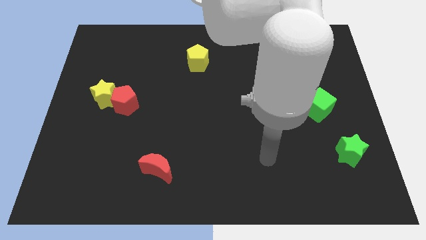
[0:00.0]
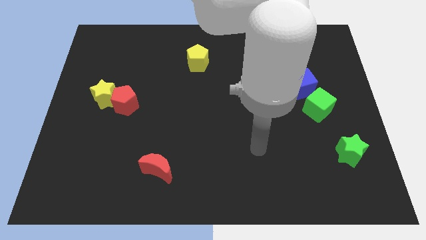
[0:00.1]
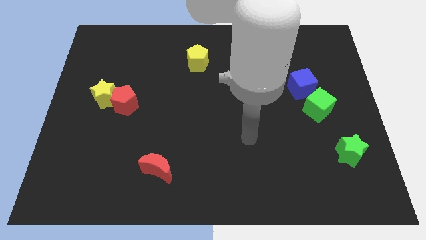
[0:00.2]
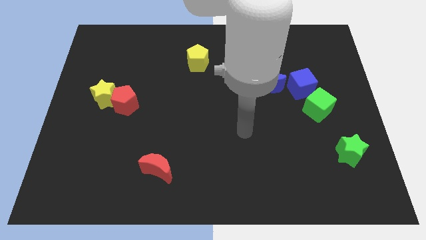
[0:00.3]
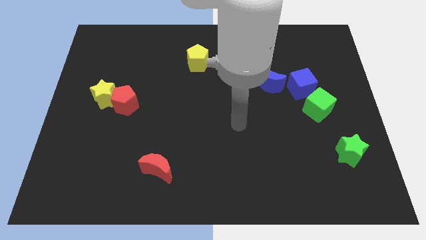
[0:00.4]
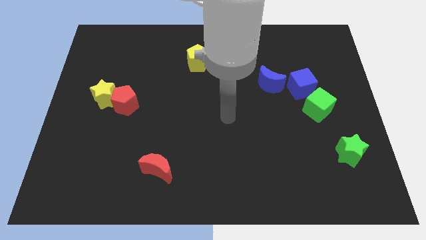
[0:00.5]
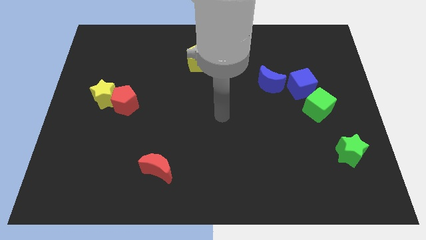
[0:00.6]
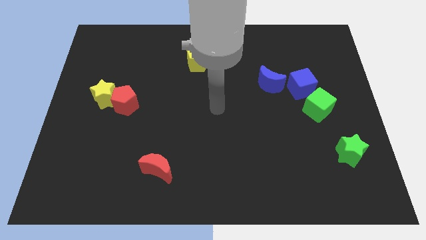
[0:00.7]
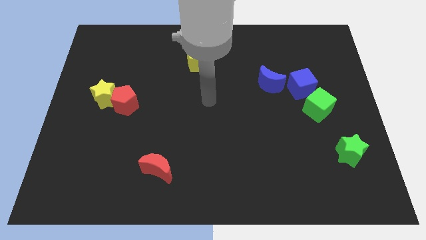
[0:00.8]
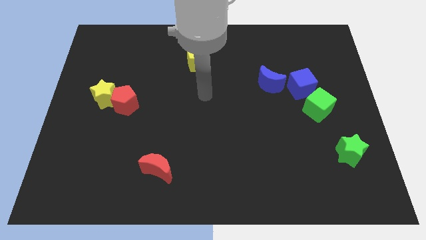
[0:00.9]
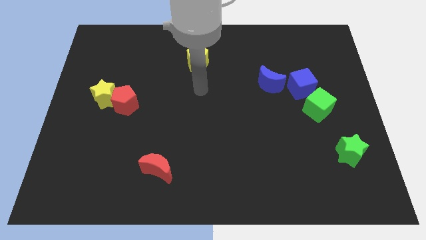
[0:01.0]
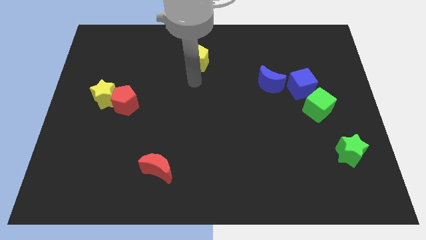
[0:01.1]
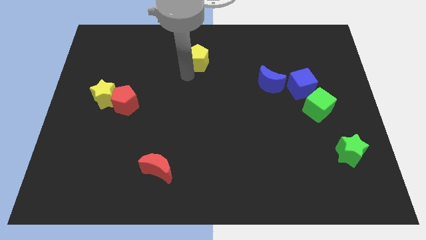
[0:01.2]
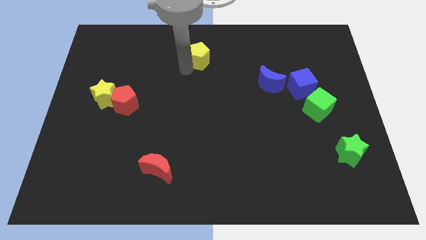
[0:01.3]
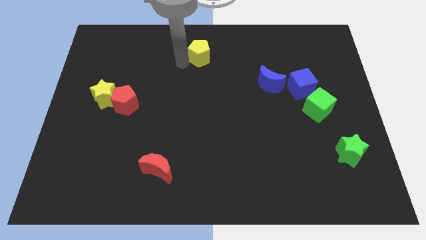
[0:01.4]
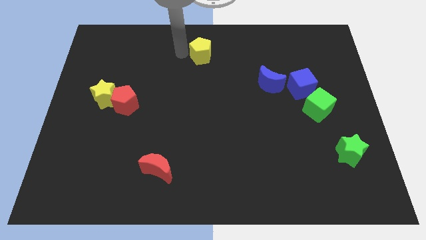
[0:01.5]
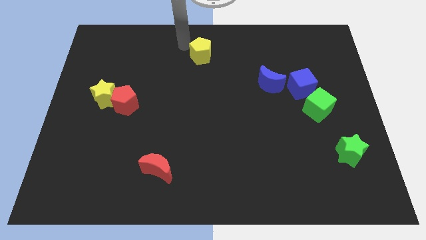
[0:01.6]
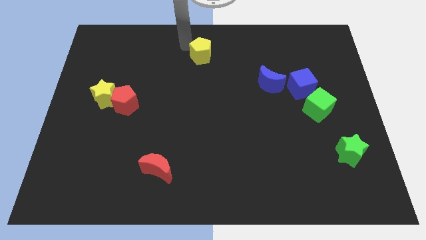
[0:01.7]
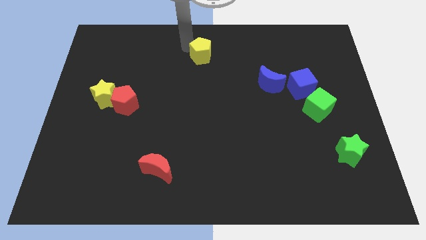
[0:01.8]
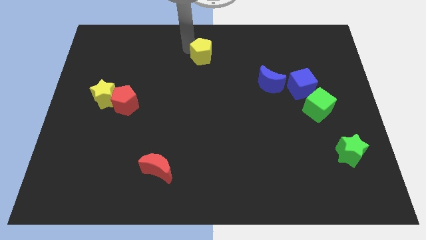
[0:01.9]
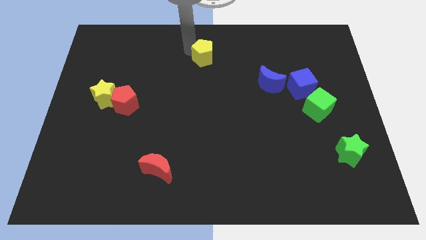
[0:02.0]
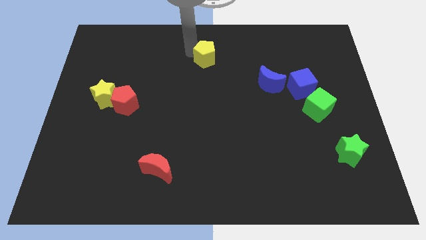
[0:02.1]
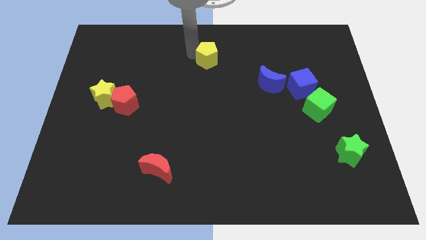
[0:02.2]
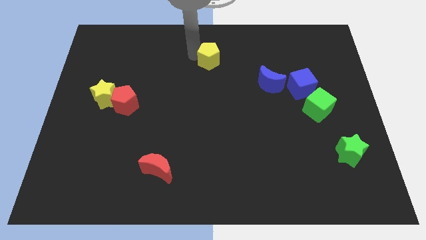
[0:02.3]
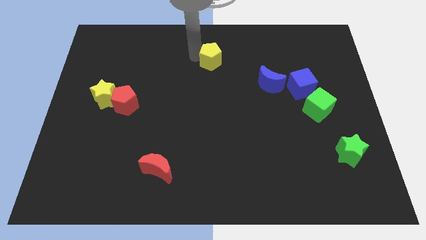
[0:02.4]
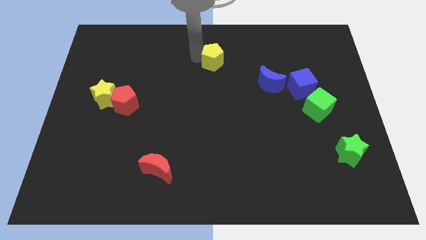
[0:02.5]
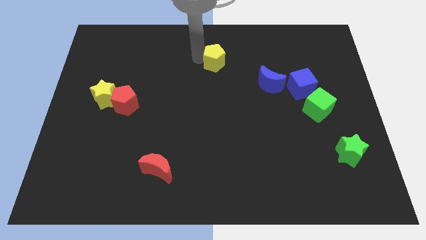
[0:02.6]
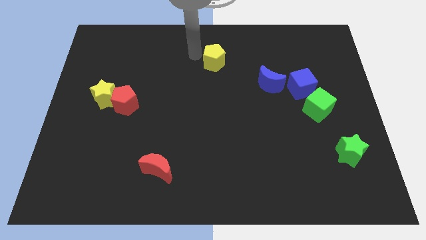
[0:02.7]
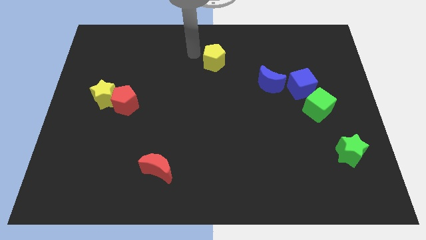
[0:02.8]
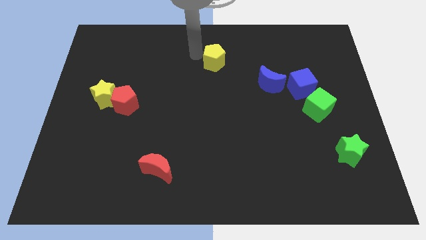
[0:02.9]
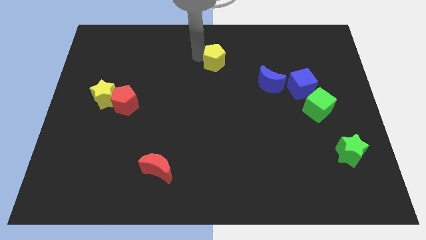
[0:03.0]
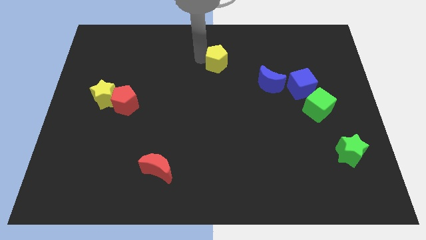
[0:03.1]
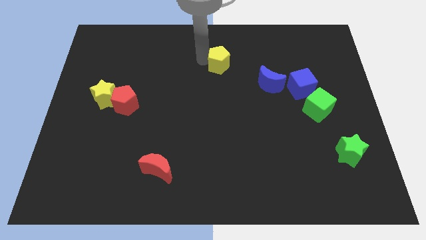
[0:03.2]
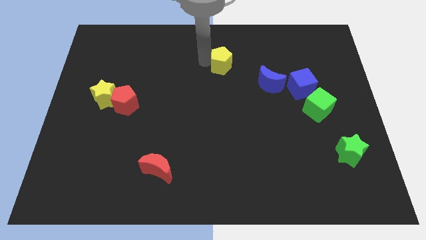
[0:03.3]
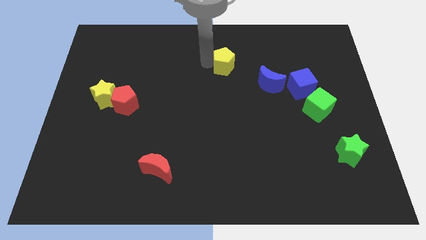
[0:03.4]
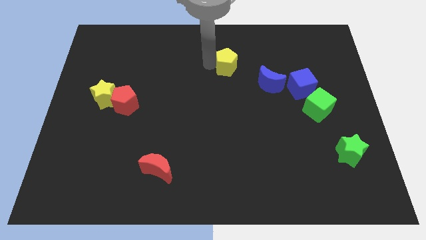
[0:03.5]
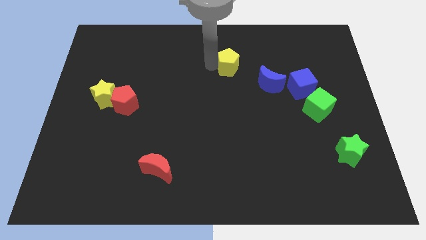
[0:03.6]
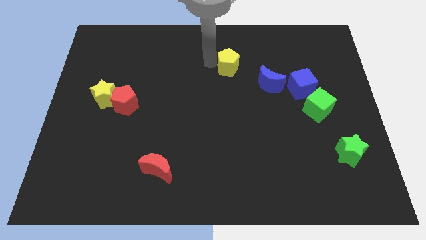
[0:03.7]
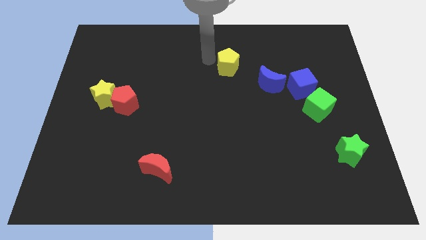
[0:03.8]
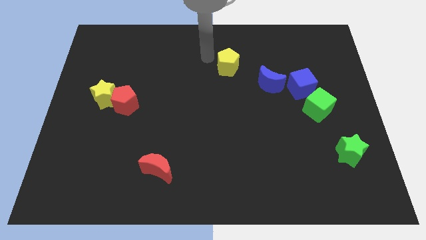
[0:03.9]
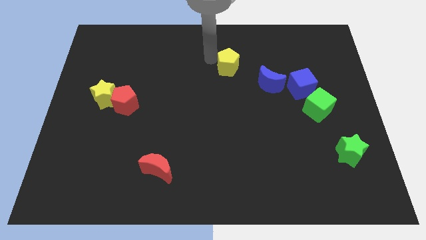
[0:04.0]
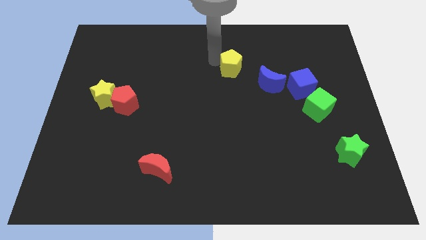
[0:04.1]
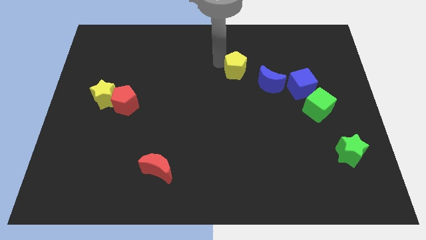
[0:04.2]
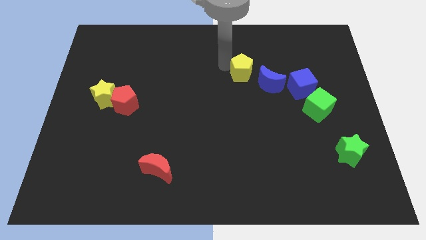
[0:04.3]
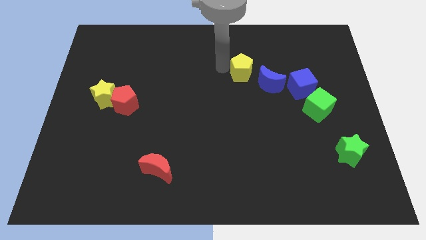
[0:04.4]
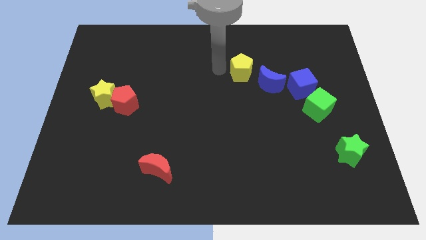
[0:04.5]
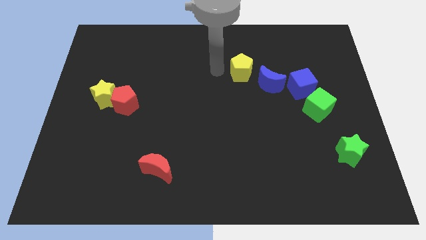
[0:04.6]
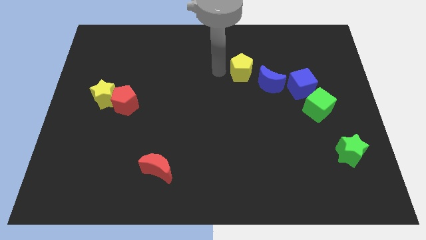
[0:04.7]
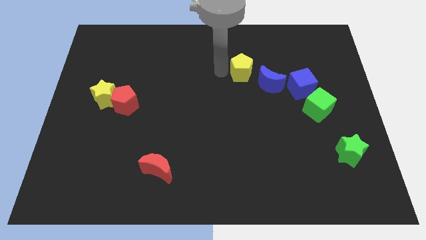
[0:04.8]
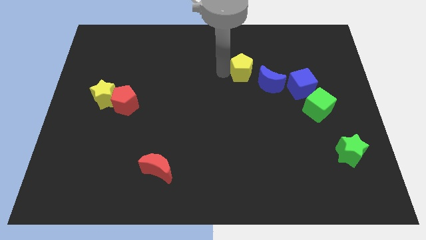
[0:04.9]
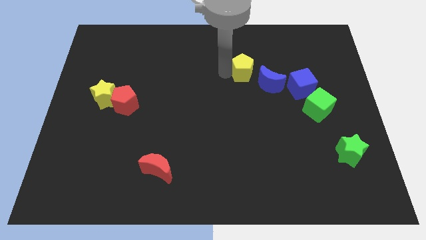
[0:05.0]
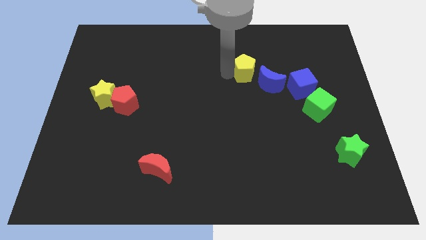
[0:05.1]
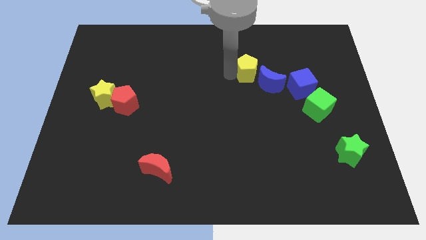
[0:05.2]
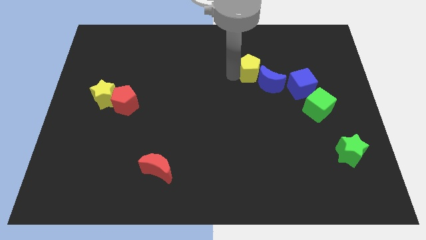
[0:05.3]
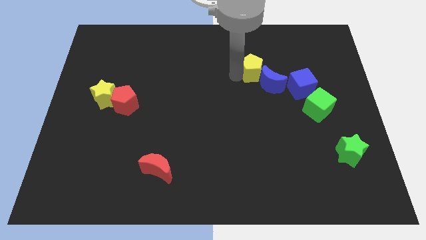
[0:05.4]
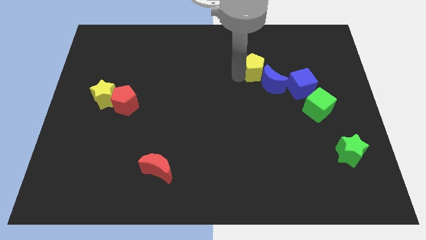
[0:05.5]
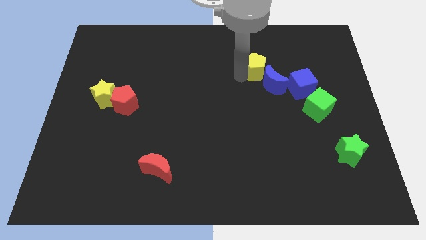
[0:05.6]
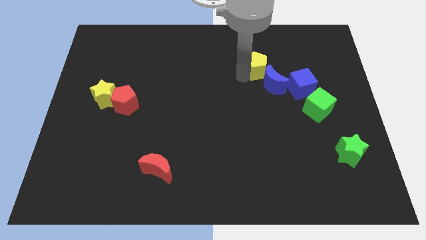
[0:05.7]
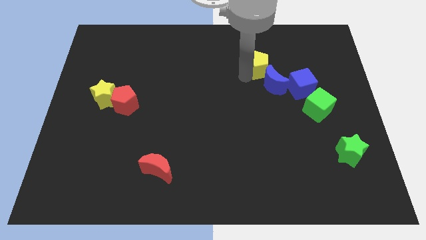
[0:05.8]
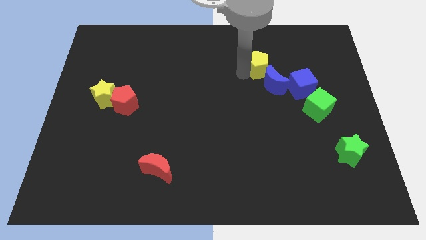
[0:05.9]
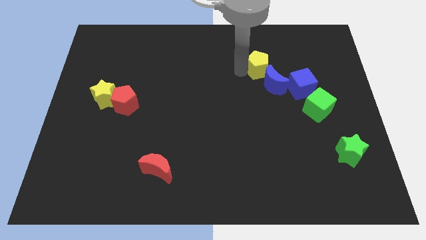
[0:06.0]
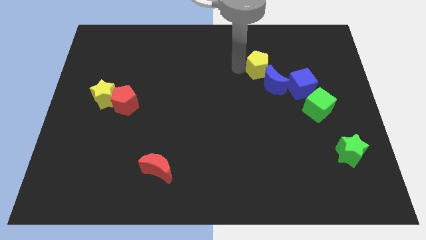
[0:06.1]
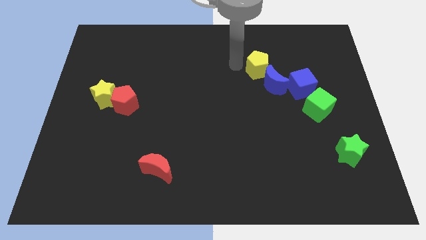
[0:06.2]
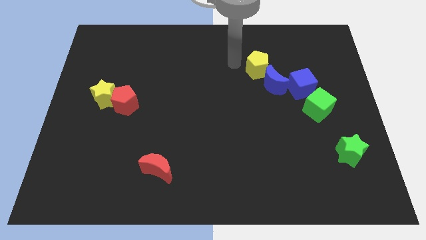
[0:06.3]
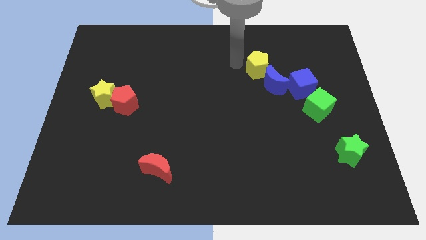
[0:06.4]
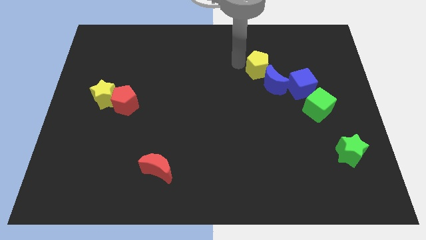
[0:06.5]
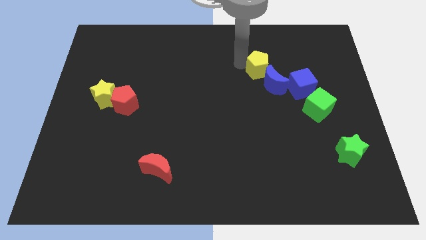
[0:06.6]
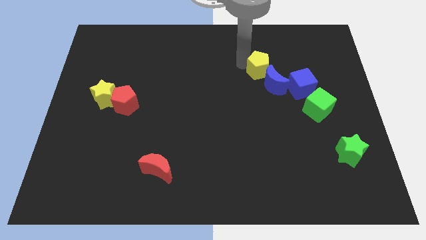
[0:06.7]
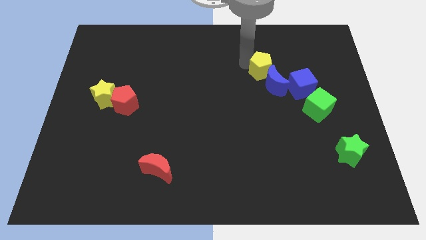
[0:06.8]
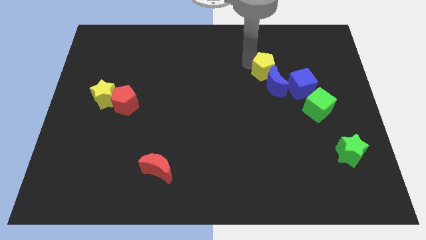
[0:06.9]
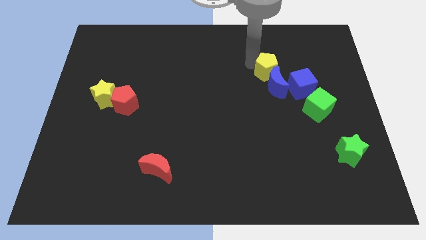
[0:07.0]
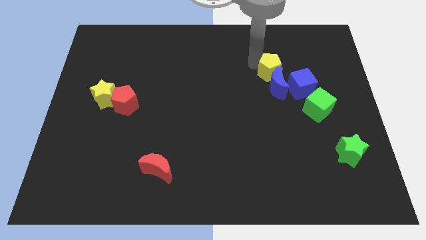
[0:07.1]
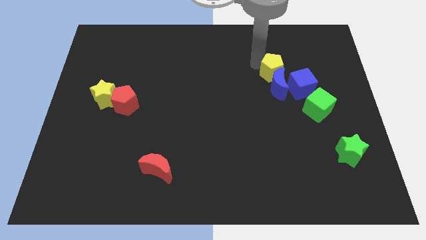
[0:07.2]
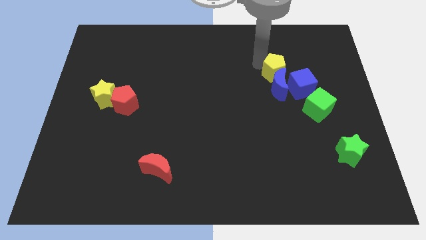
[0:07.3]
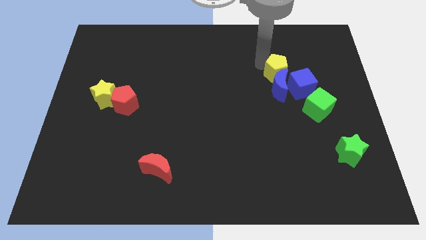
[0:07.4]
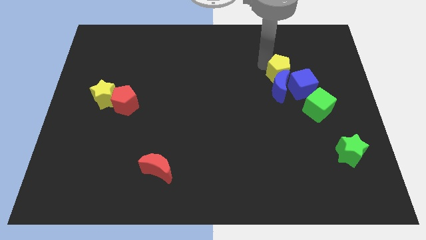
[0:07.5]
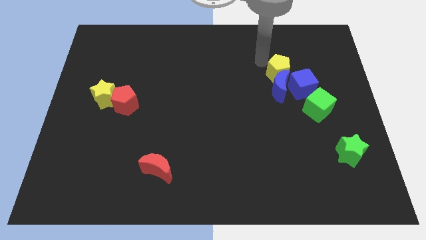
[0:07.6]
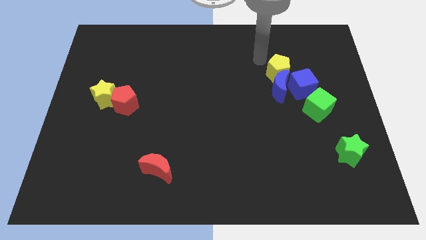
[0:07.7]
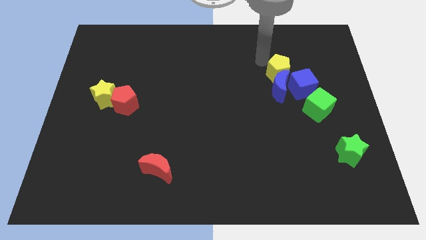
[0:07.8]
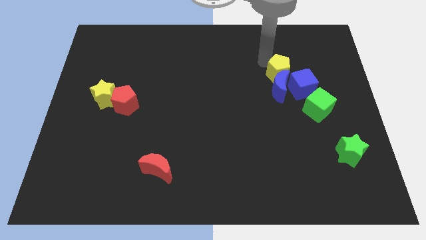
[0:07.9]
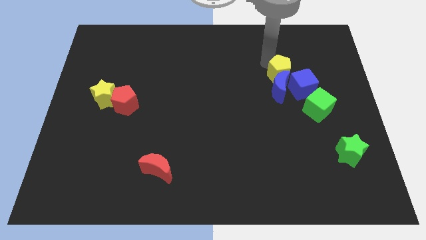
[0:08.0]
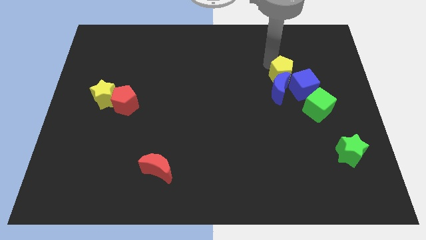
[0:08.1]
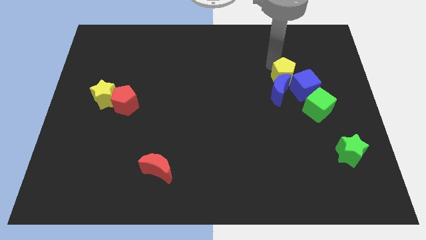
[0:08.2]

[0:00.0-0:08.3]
push the yellow pentagon to the blue cube
